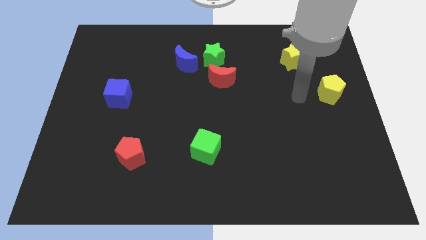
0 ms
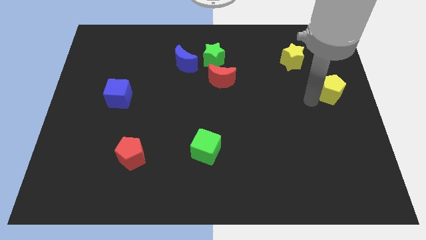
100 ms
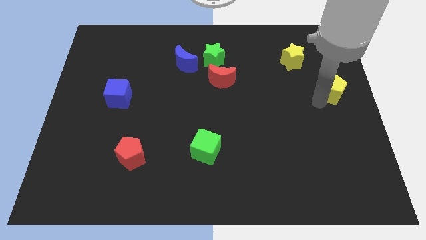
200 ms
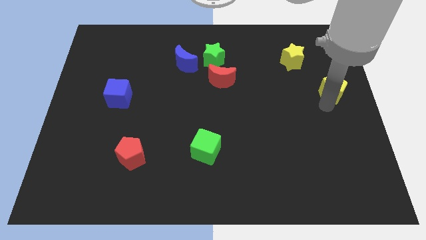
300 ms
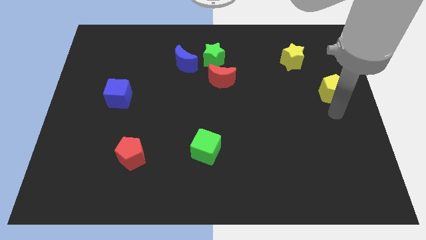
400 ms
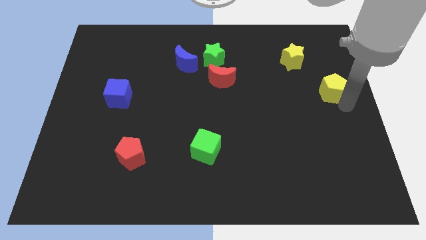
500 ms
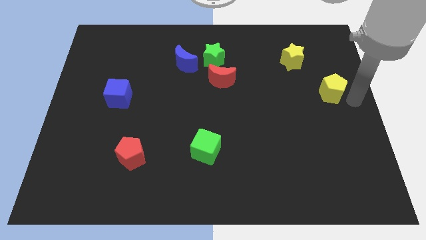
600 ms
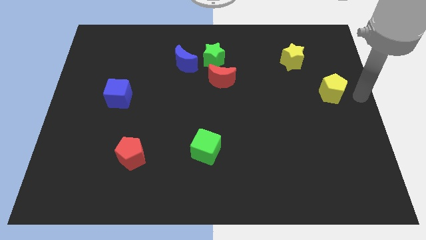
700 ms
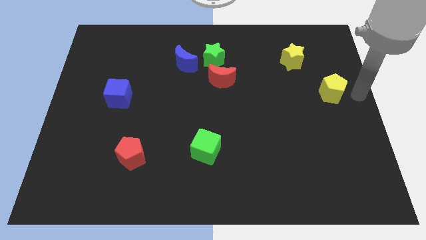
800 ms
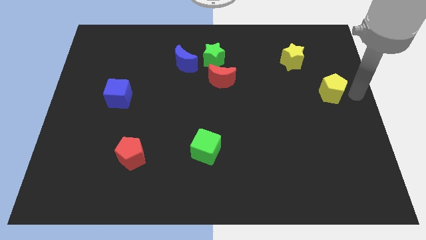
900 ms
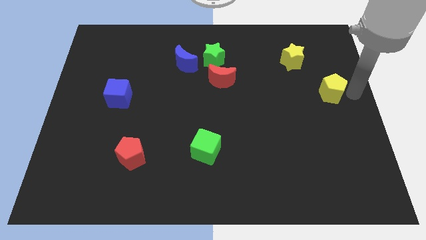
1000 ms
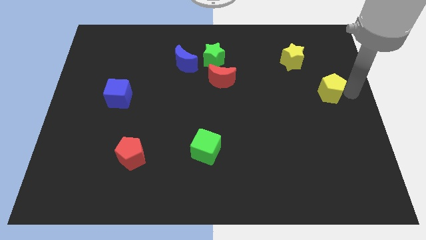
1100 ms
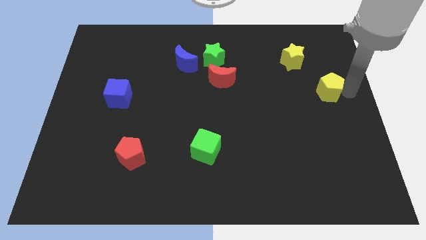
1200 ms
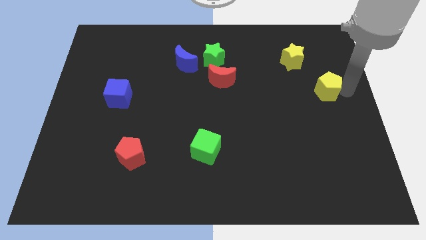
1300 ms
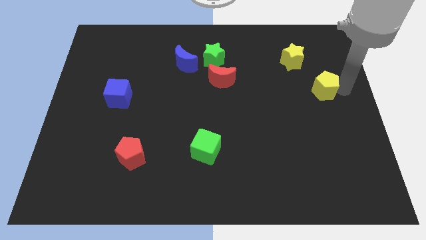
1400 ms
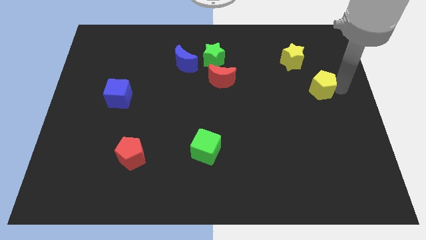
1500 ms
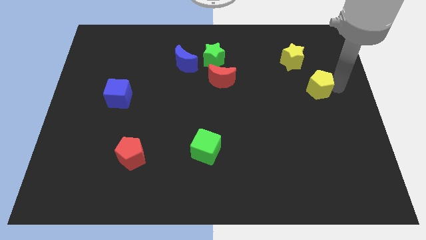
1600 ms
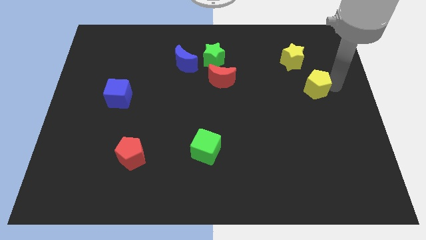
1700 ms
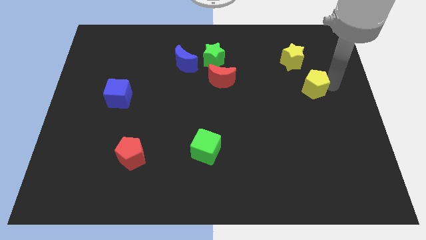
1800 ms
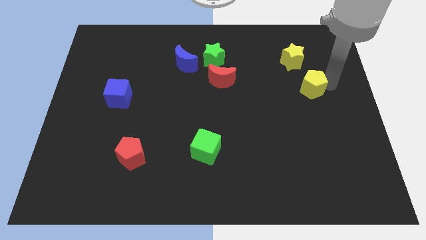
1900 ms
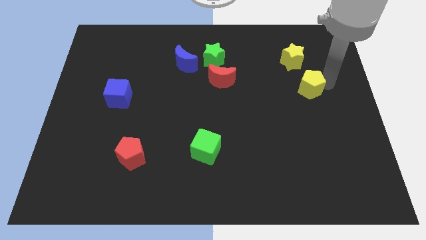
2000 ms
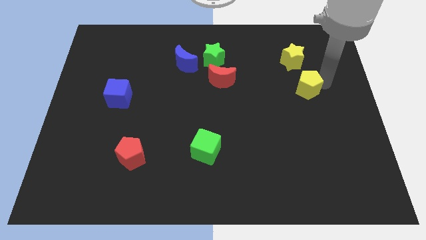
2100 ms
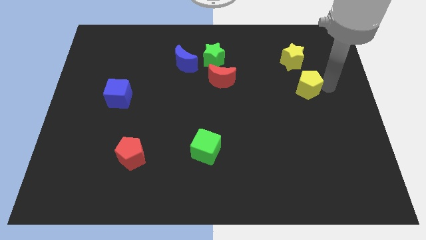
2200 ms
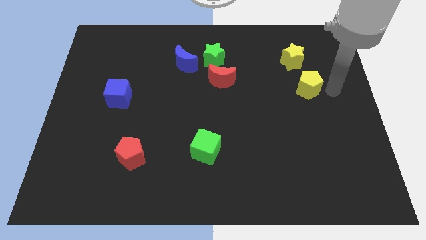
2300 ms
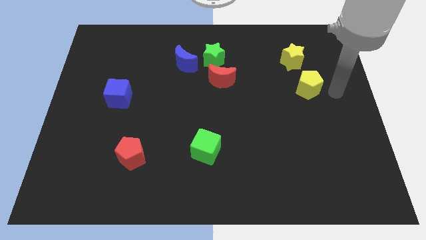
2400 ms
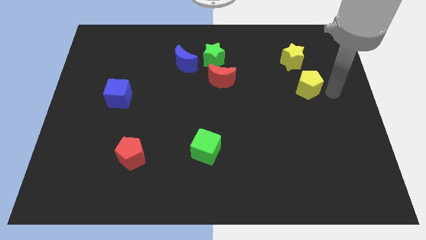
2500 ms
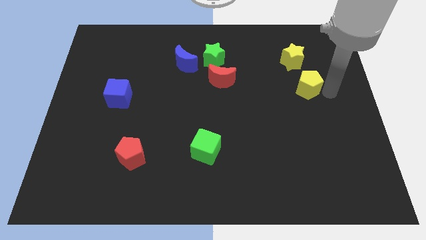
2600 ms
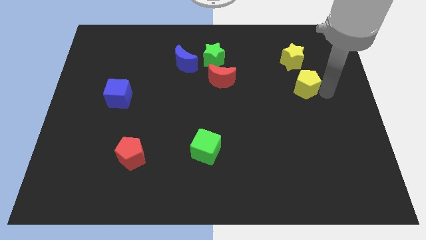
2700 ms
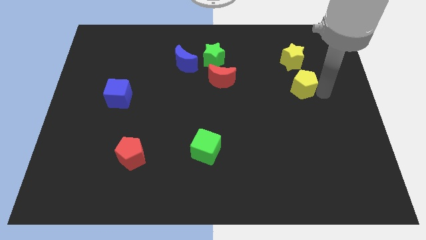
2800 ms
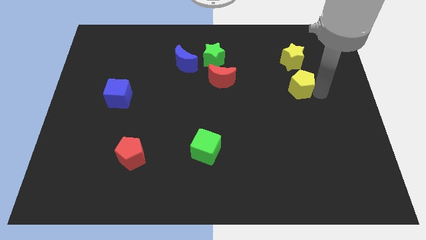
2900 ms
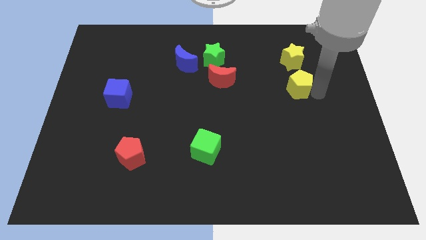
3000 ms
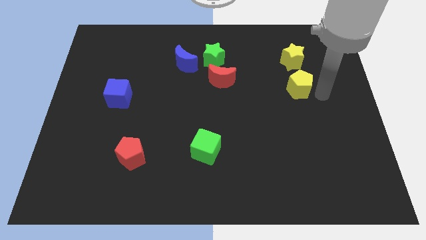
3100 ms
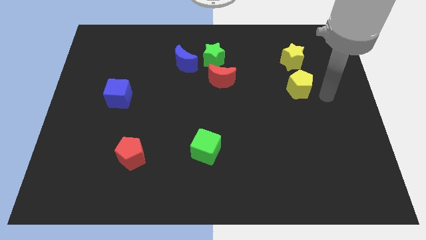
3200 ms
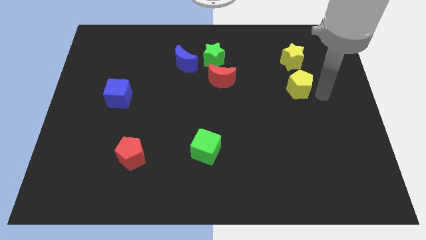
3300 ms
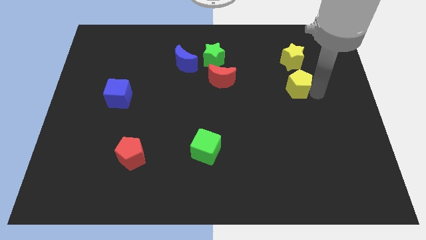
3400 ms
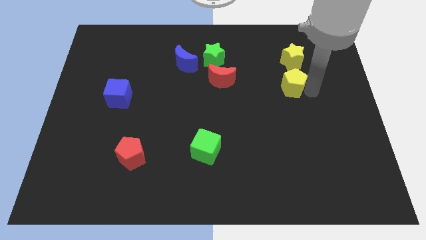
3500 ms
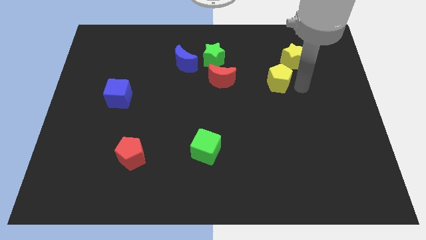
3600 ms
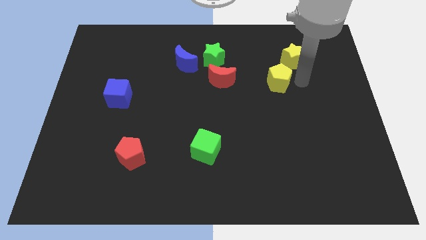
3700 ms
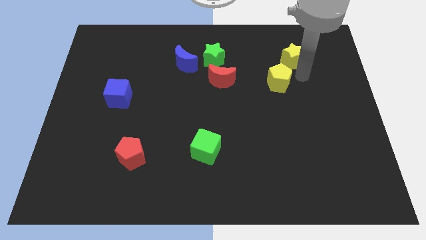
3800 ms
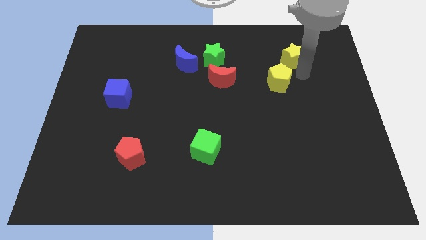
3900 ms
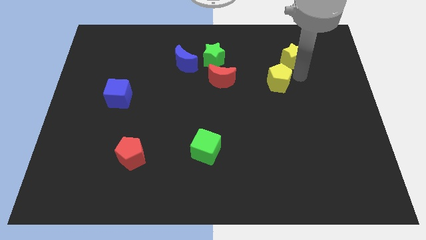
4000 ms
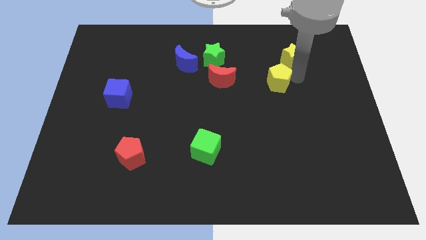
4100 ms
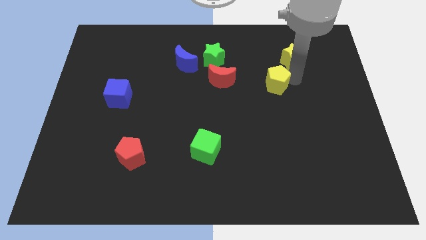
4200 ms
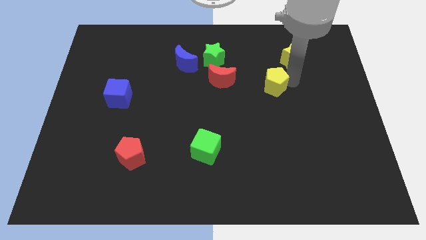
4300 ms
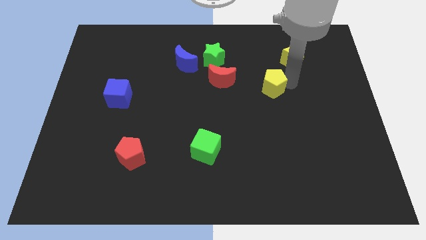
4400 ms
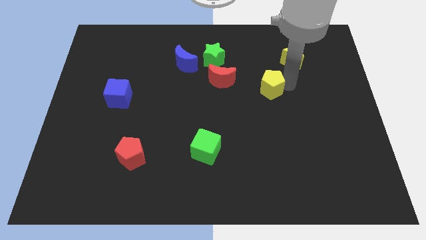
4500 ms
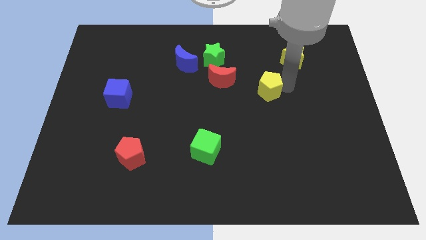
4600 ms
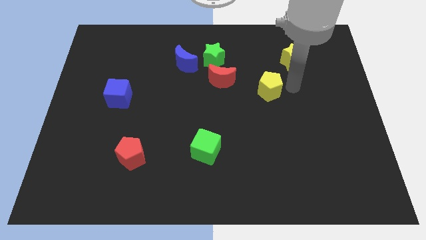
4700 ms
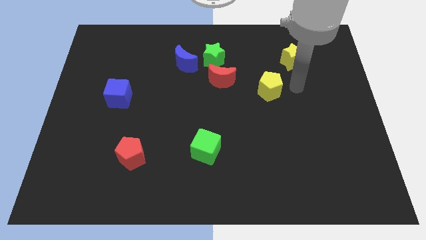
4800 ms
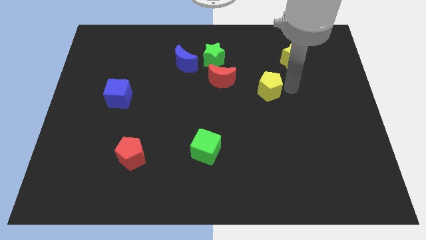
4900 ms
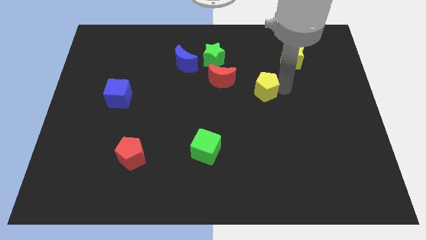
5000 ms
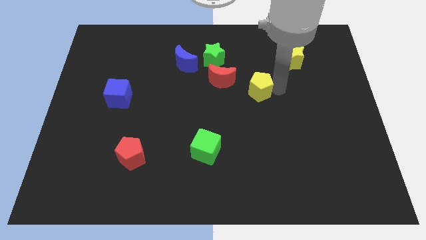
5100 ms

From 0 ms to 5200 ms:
slide the yellow pentagon to the center of the board

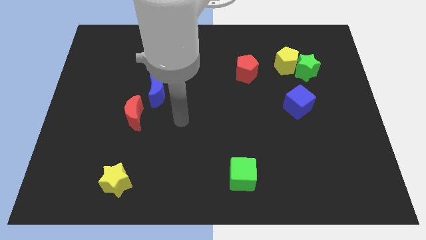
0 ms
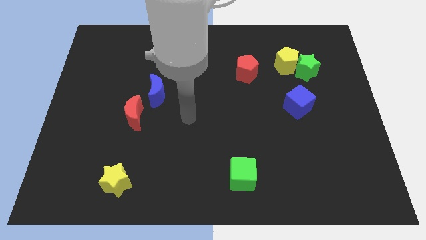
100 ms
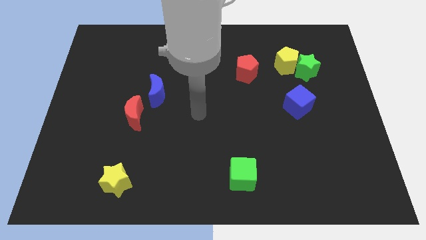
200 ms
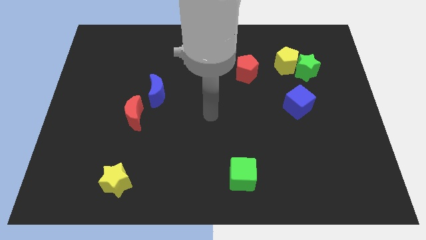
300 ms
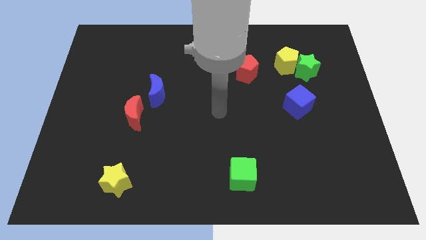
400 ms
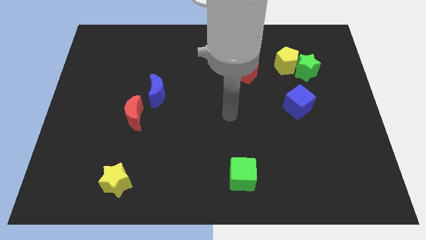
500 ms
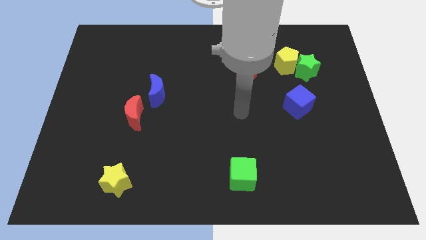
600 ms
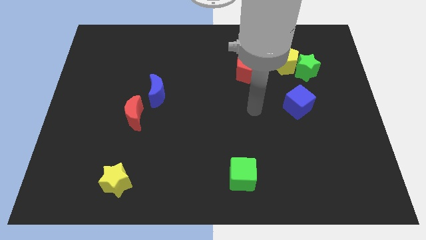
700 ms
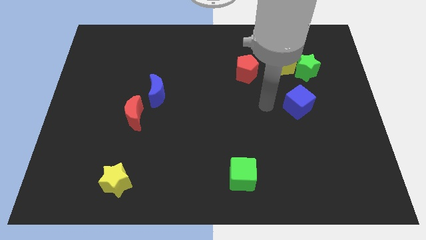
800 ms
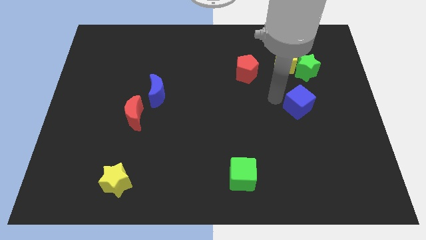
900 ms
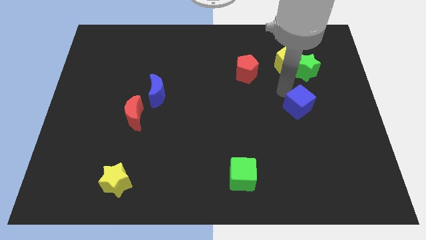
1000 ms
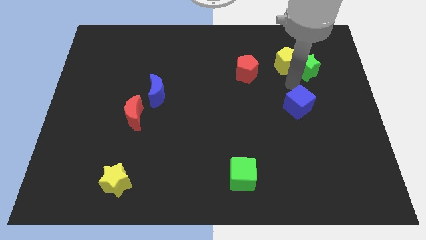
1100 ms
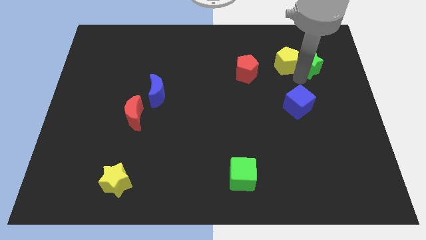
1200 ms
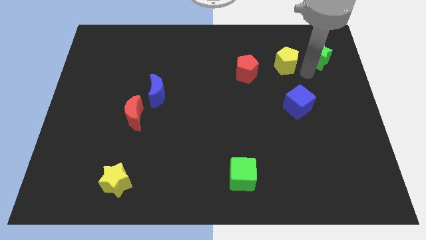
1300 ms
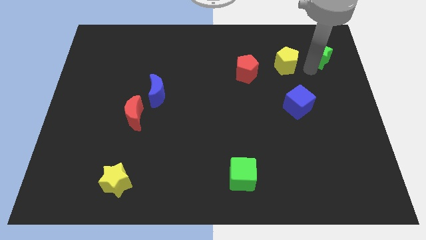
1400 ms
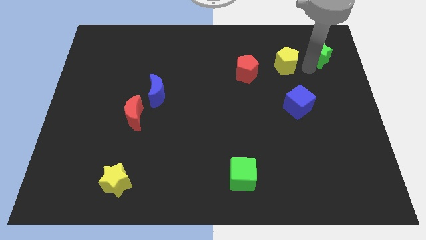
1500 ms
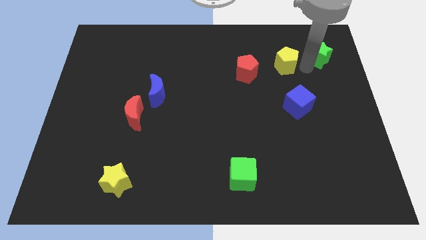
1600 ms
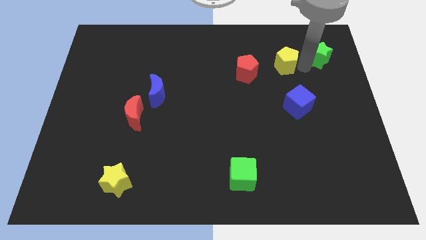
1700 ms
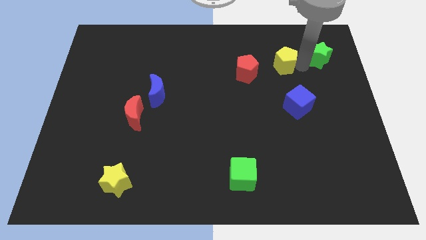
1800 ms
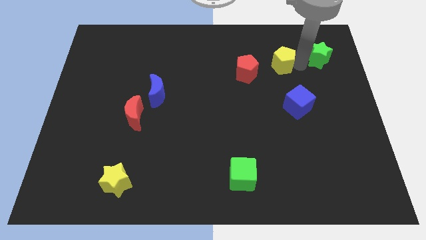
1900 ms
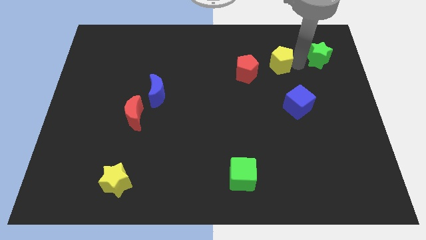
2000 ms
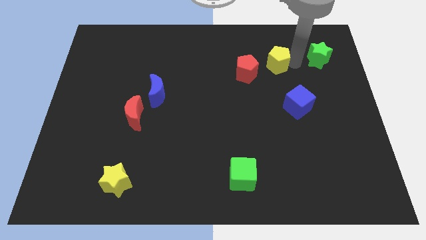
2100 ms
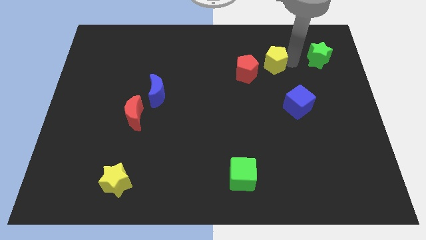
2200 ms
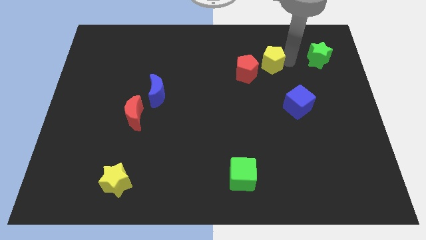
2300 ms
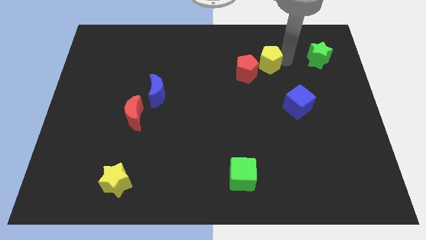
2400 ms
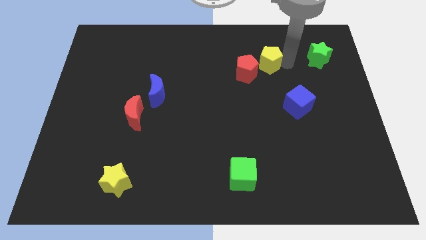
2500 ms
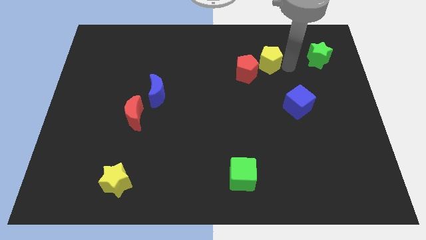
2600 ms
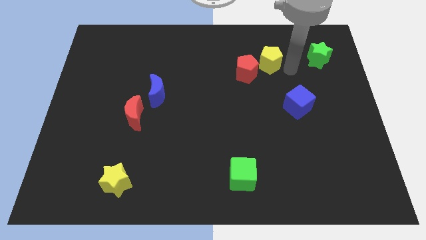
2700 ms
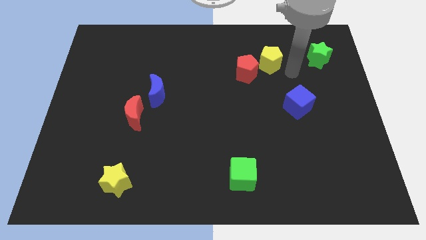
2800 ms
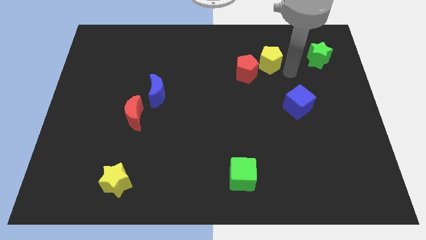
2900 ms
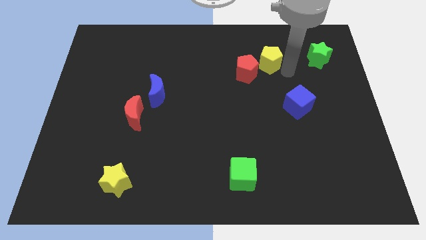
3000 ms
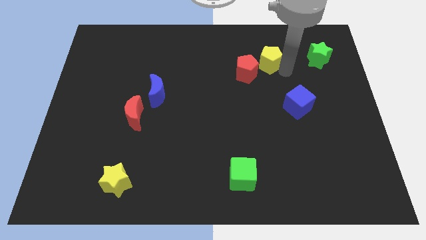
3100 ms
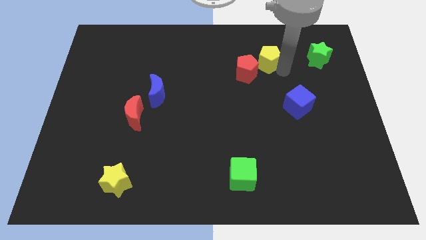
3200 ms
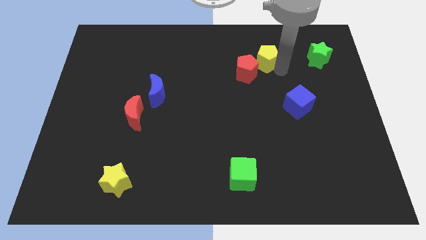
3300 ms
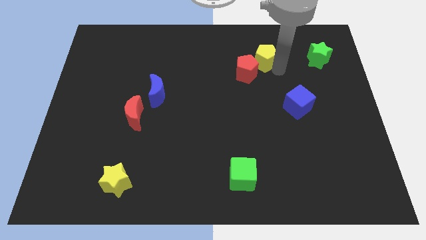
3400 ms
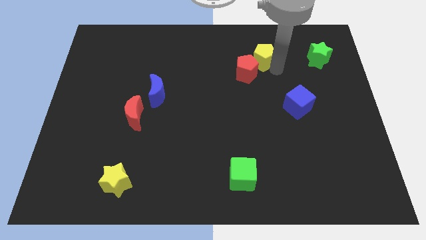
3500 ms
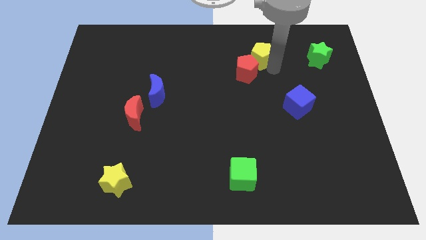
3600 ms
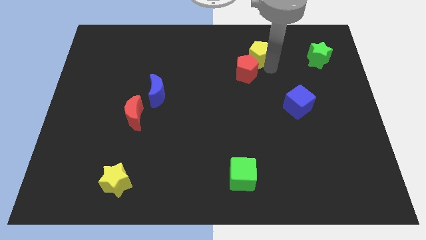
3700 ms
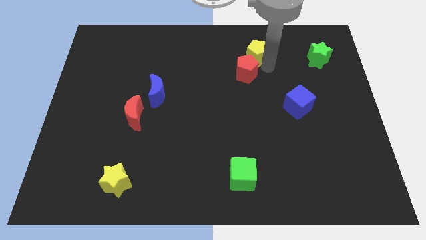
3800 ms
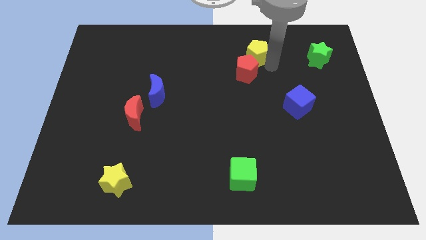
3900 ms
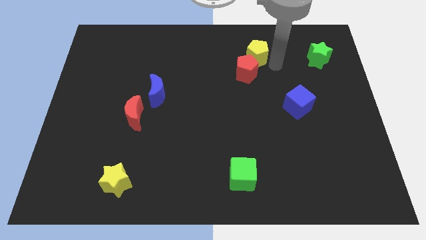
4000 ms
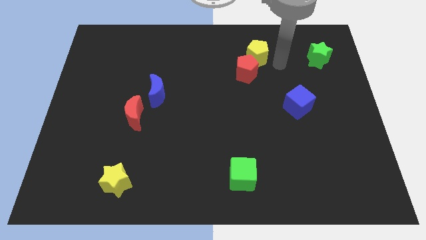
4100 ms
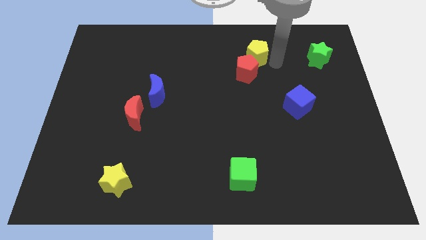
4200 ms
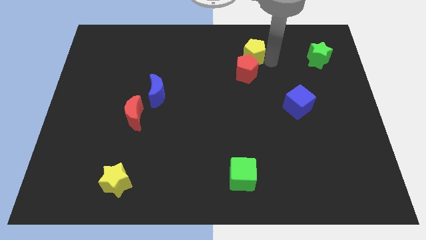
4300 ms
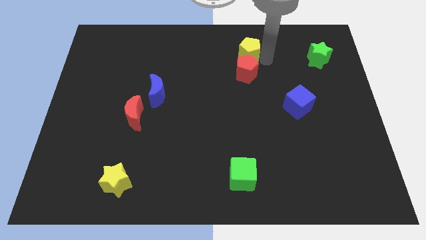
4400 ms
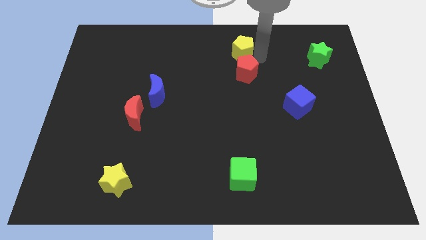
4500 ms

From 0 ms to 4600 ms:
slide the yellow pentagon to the towards your base
